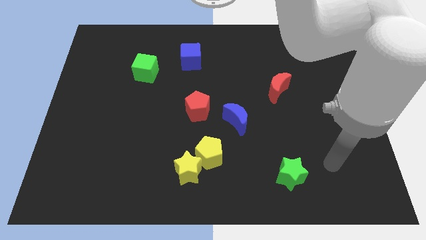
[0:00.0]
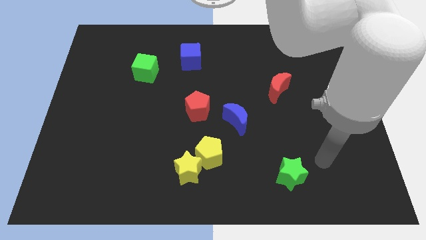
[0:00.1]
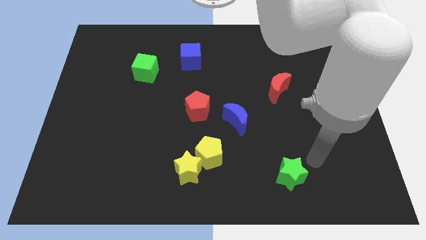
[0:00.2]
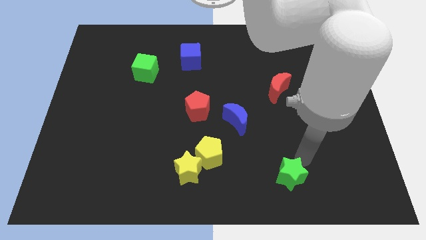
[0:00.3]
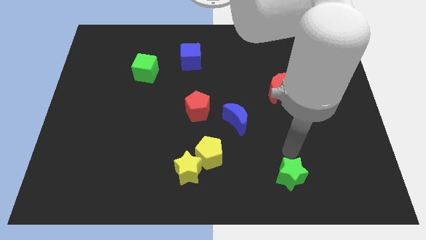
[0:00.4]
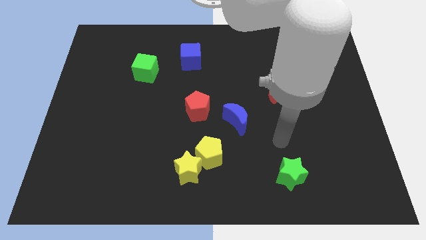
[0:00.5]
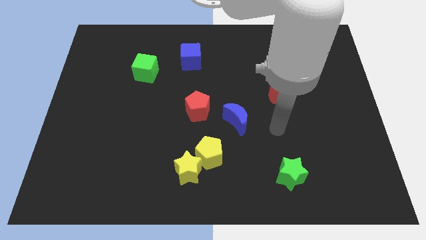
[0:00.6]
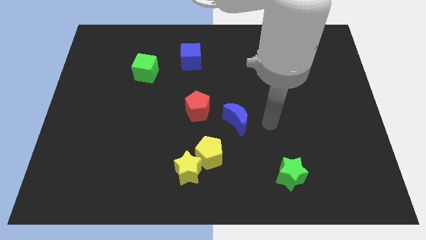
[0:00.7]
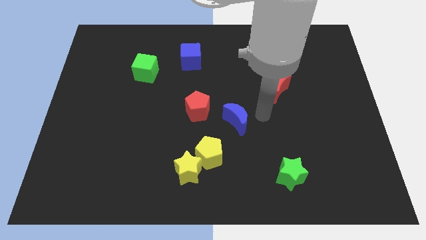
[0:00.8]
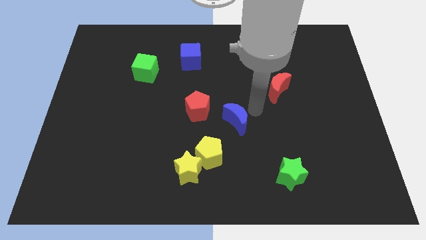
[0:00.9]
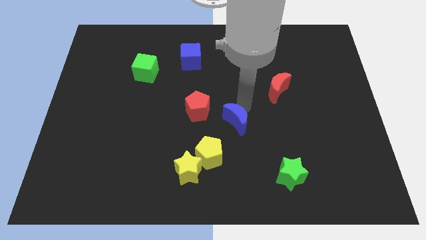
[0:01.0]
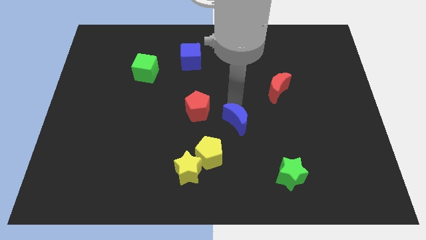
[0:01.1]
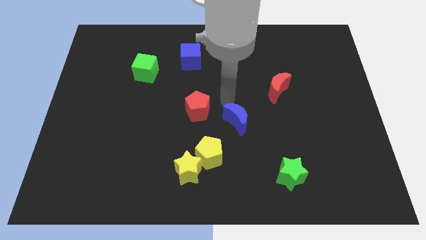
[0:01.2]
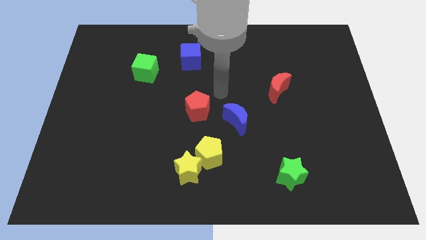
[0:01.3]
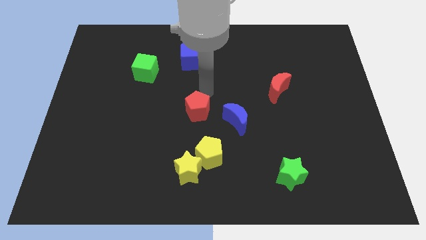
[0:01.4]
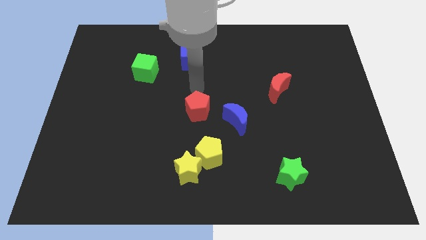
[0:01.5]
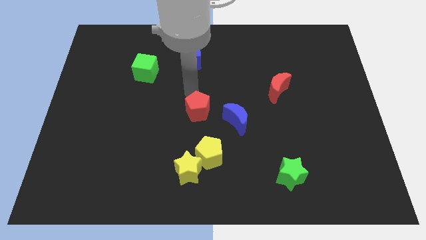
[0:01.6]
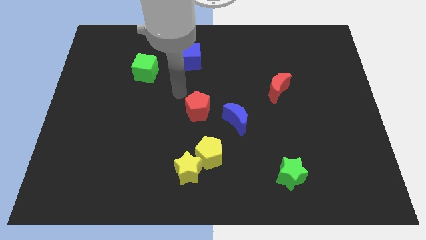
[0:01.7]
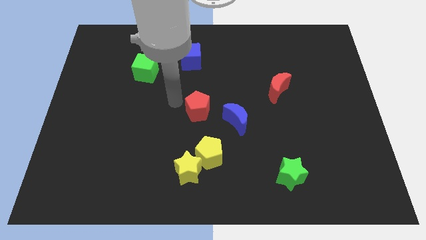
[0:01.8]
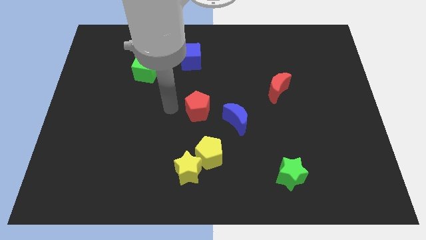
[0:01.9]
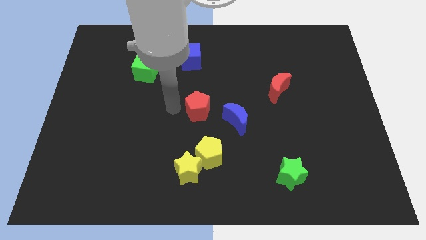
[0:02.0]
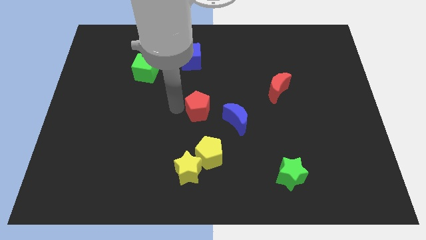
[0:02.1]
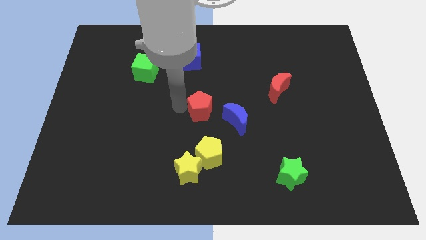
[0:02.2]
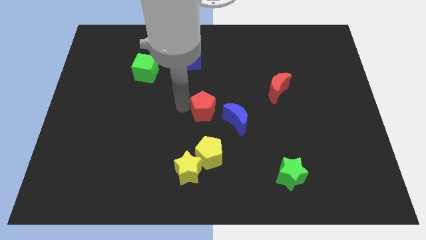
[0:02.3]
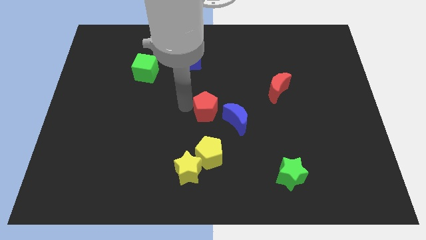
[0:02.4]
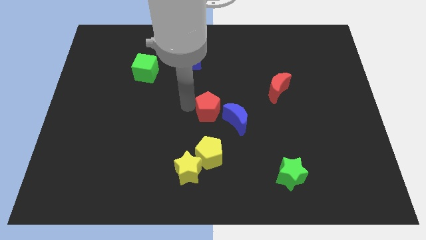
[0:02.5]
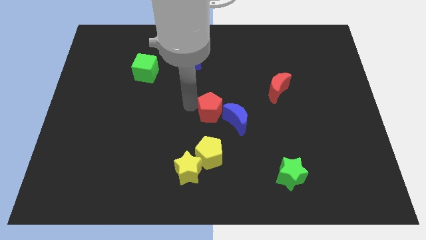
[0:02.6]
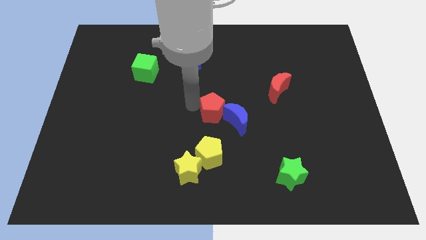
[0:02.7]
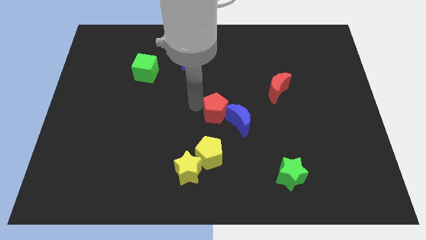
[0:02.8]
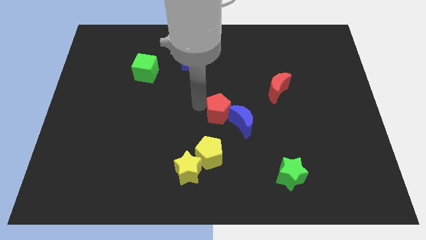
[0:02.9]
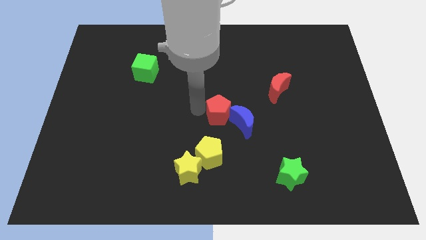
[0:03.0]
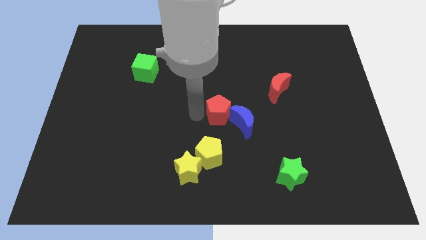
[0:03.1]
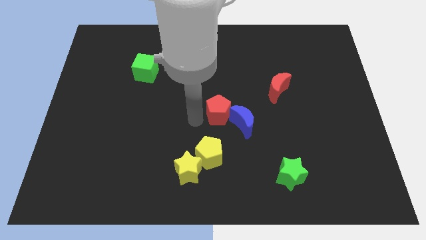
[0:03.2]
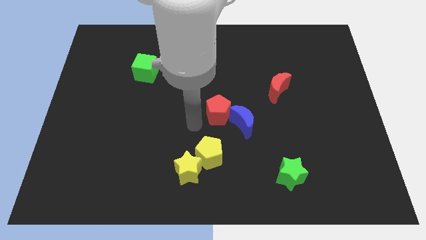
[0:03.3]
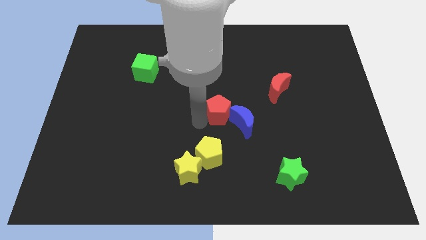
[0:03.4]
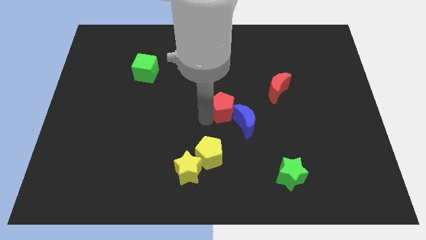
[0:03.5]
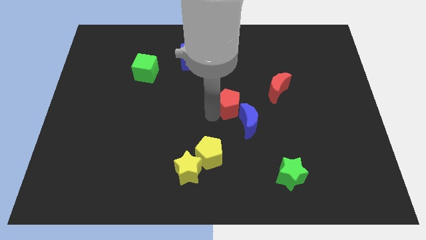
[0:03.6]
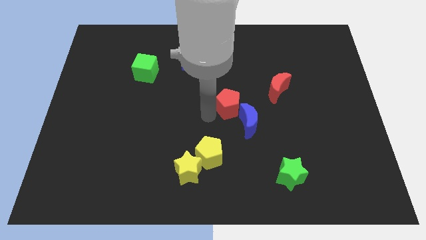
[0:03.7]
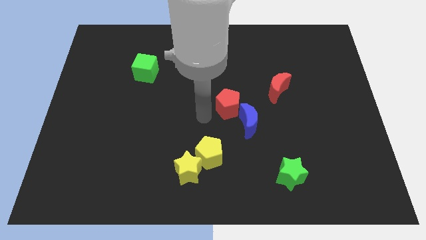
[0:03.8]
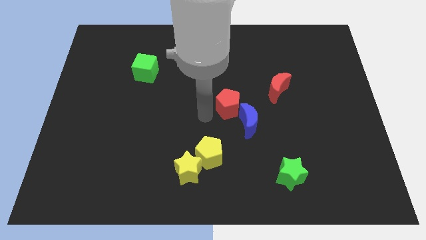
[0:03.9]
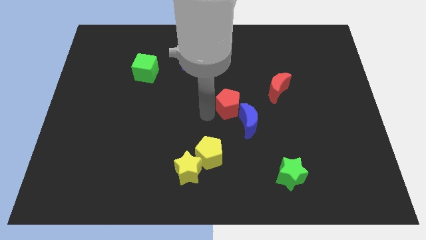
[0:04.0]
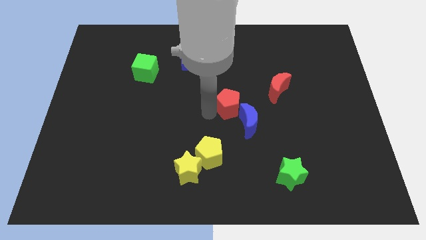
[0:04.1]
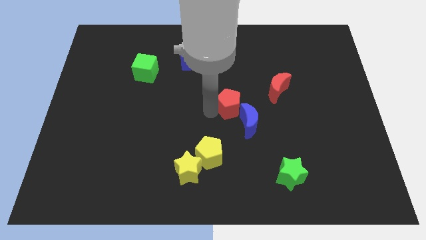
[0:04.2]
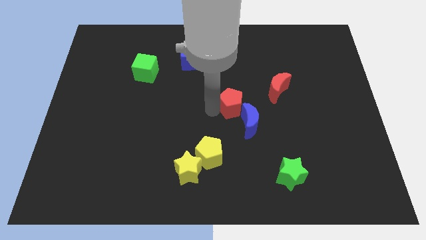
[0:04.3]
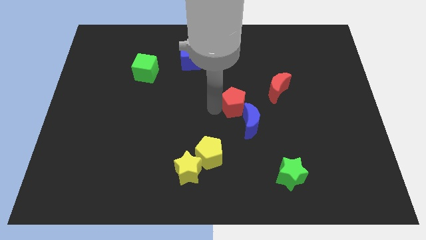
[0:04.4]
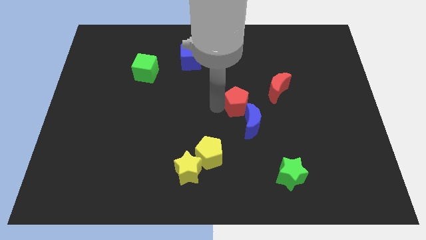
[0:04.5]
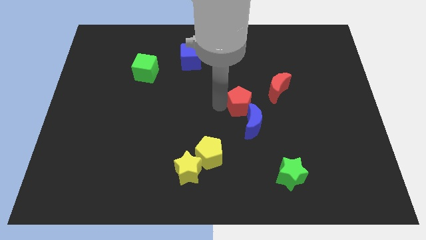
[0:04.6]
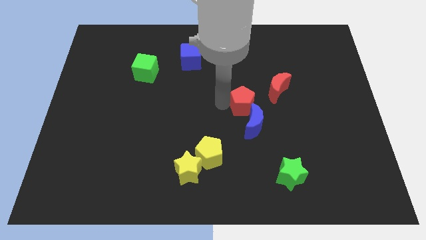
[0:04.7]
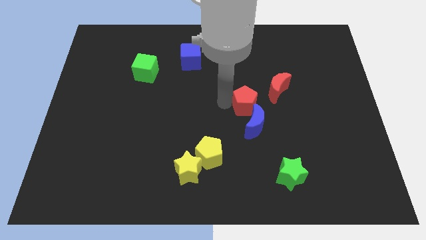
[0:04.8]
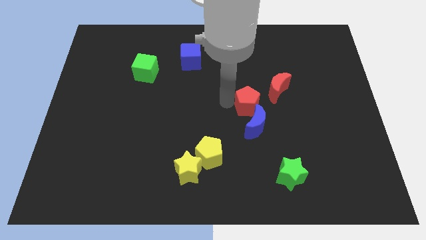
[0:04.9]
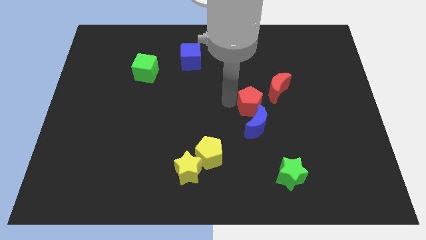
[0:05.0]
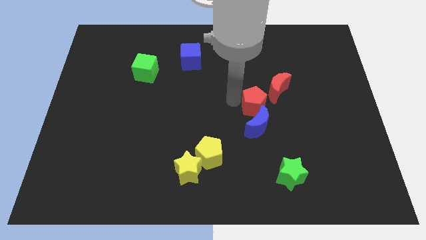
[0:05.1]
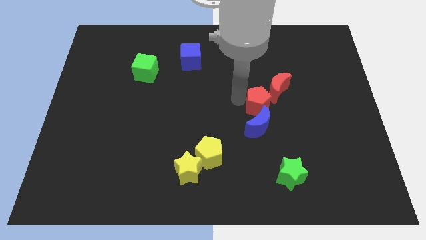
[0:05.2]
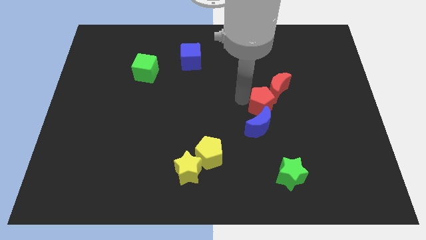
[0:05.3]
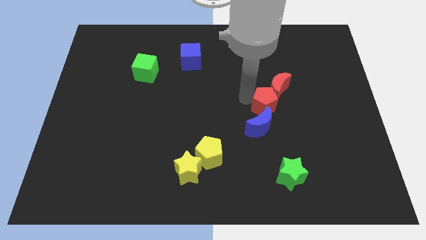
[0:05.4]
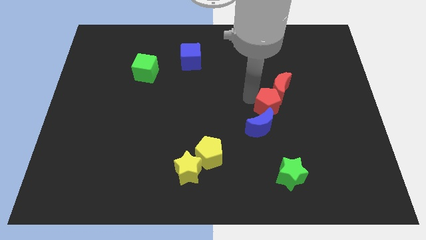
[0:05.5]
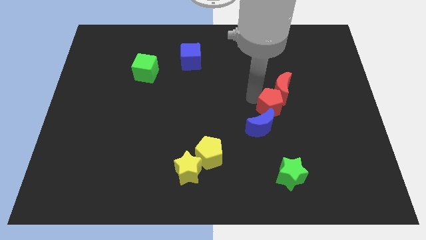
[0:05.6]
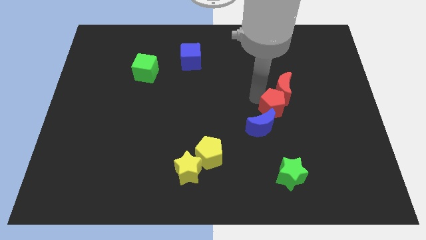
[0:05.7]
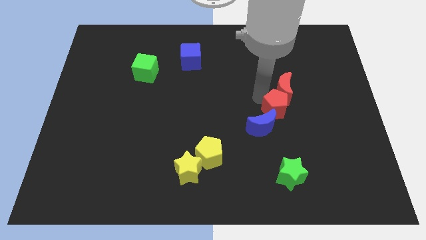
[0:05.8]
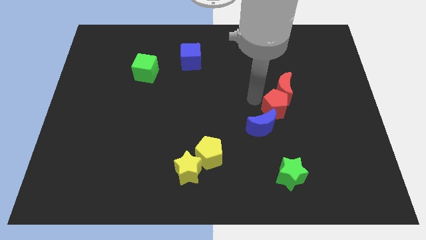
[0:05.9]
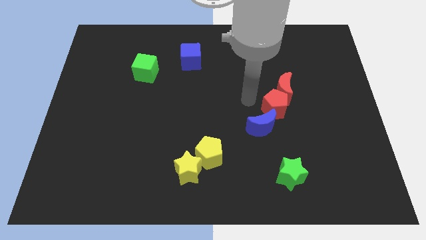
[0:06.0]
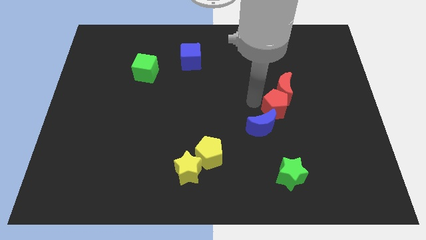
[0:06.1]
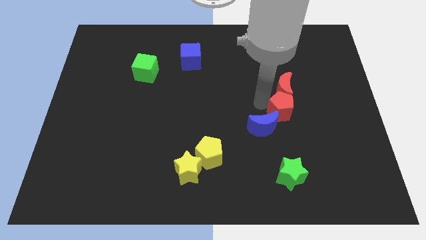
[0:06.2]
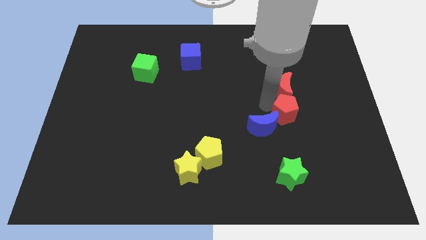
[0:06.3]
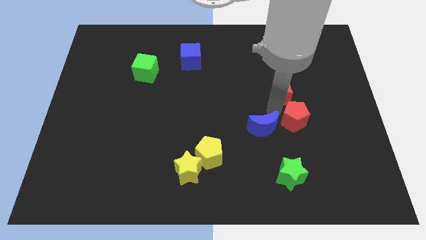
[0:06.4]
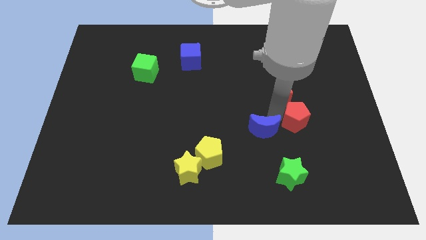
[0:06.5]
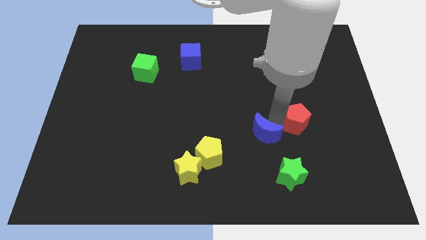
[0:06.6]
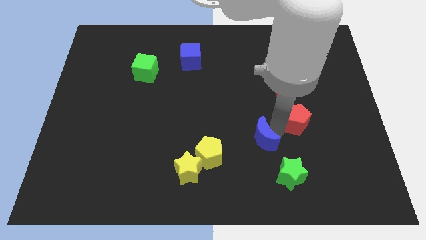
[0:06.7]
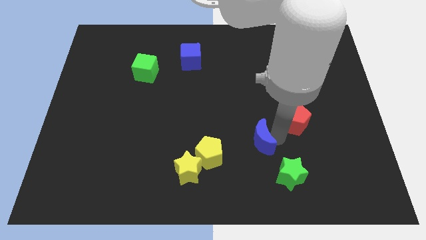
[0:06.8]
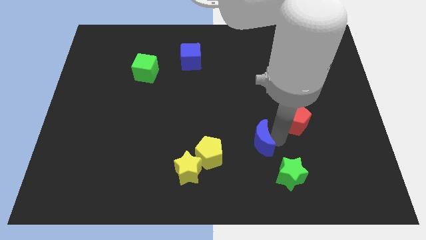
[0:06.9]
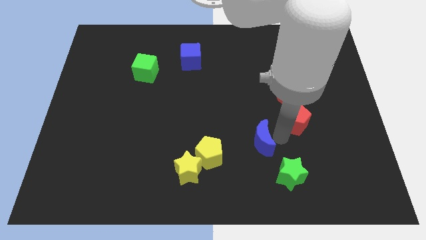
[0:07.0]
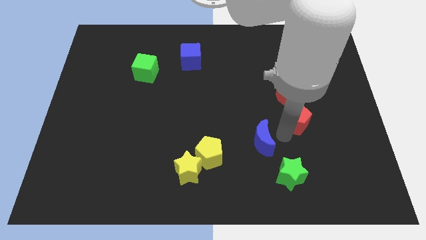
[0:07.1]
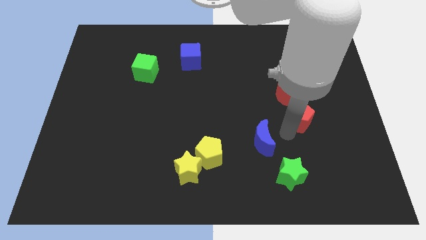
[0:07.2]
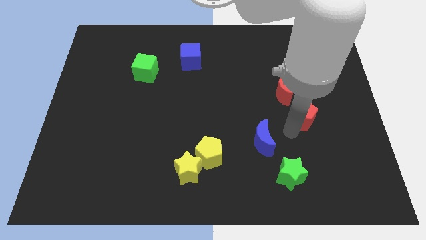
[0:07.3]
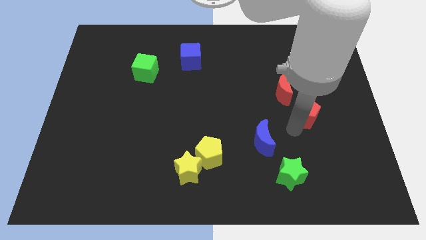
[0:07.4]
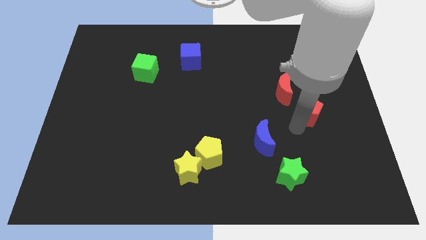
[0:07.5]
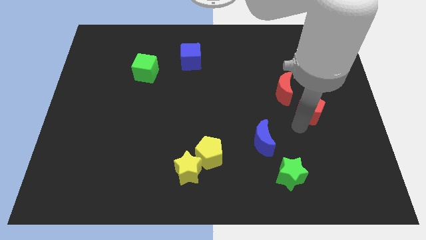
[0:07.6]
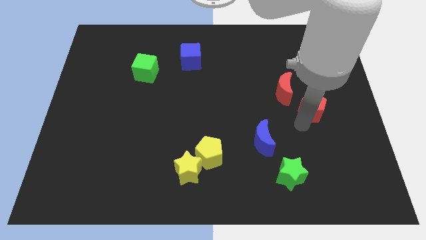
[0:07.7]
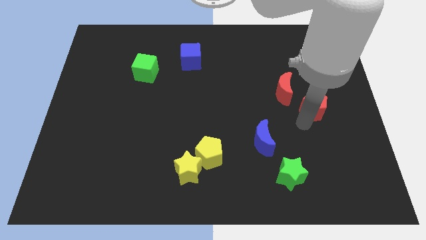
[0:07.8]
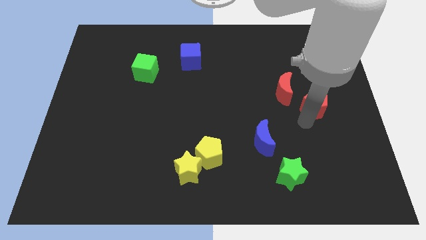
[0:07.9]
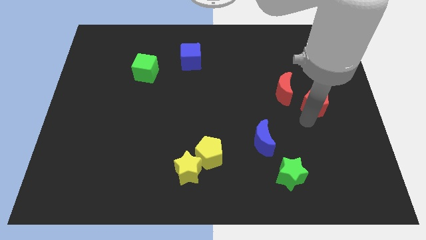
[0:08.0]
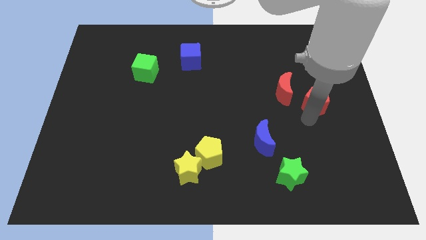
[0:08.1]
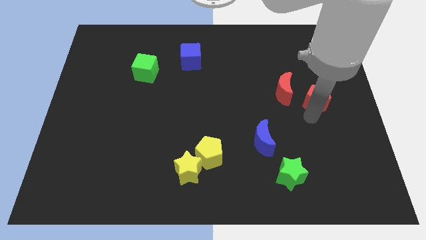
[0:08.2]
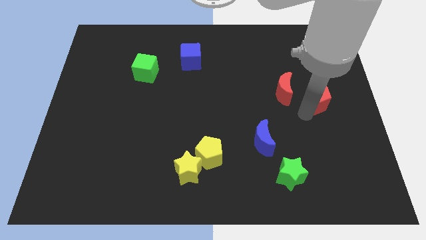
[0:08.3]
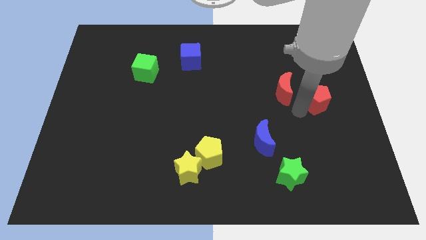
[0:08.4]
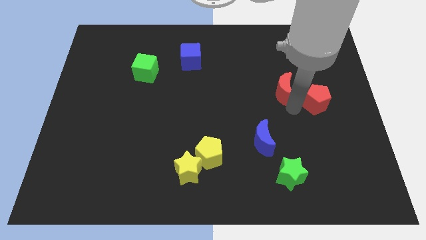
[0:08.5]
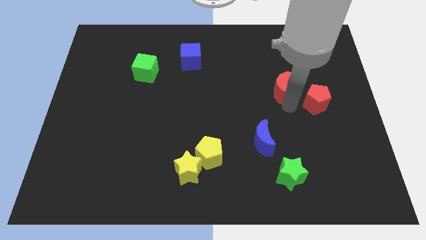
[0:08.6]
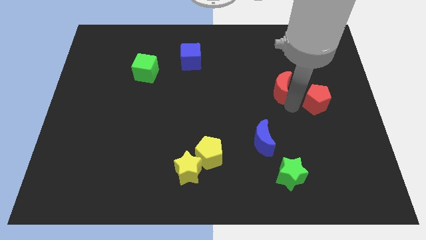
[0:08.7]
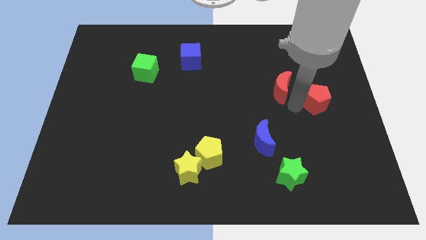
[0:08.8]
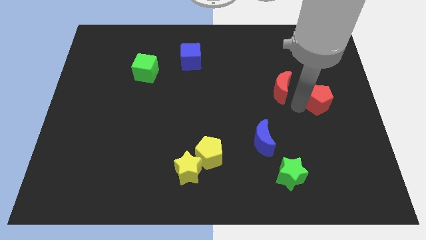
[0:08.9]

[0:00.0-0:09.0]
move the red pentagon to the right side of the board
